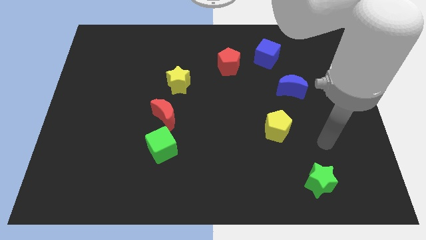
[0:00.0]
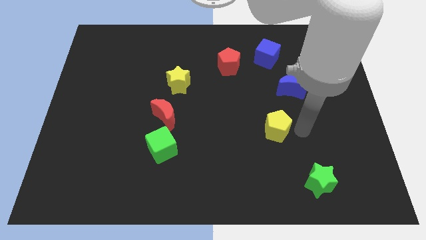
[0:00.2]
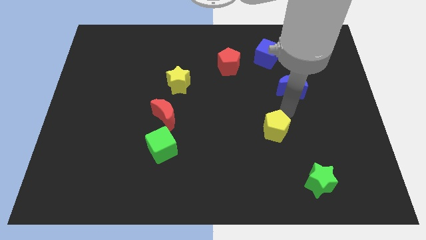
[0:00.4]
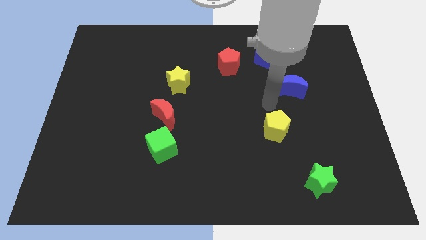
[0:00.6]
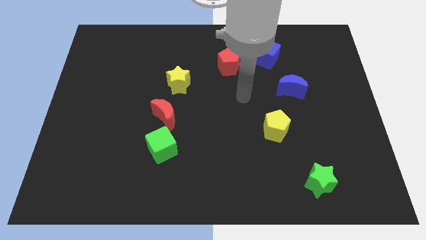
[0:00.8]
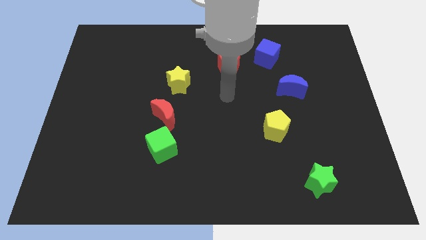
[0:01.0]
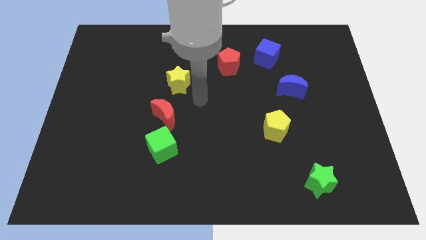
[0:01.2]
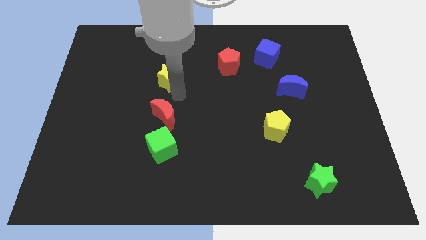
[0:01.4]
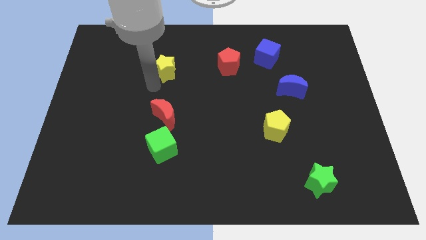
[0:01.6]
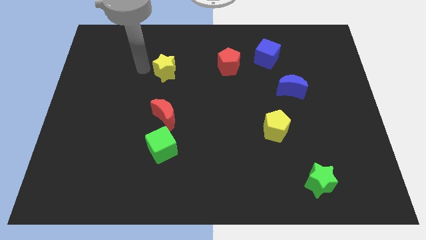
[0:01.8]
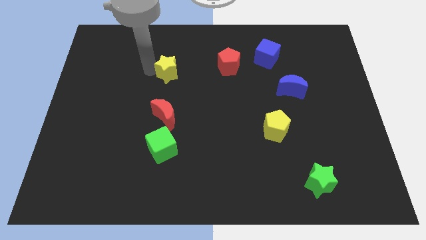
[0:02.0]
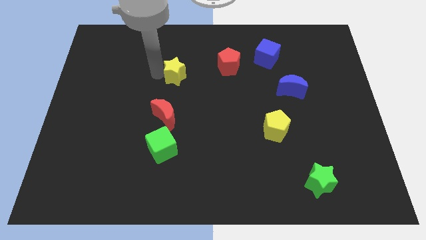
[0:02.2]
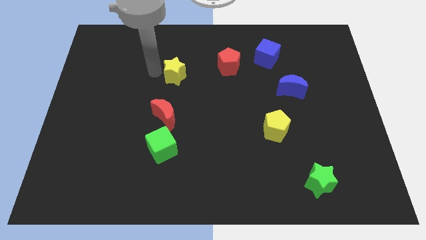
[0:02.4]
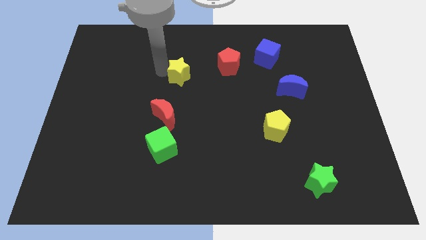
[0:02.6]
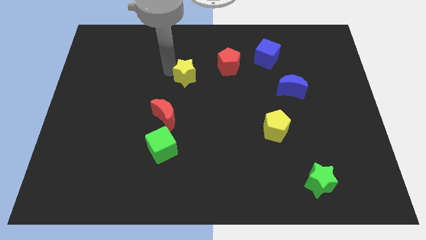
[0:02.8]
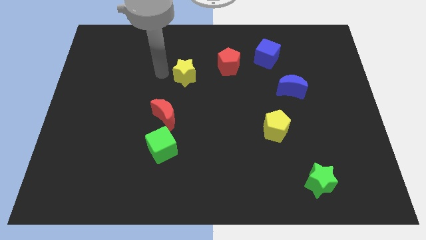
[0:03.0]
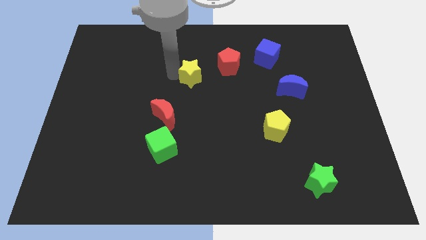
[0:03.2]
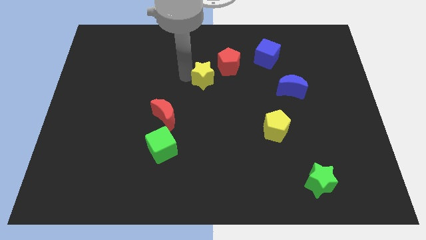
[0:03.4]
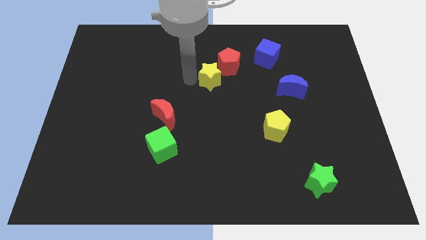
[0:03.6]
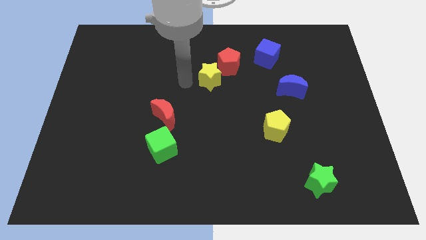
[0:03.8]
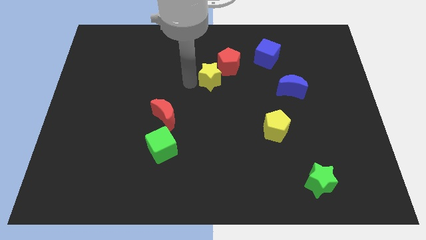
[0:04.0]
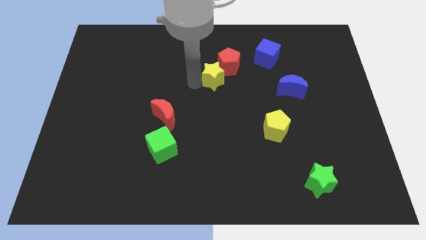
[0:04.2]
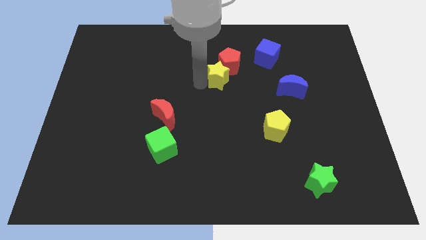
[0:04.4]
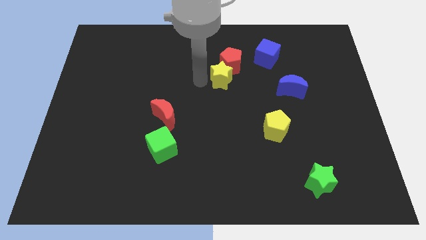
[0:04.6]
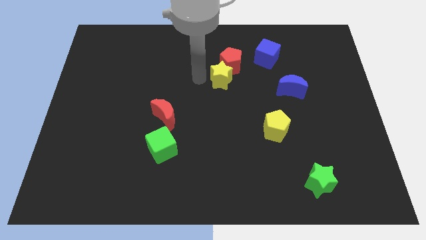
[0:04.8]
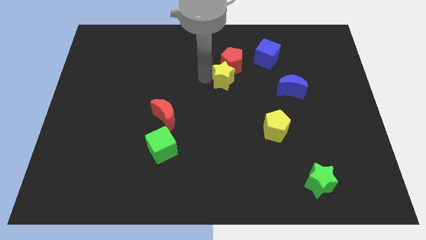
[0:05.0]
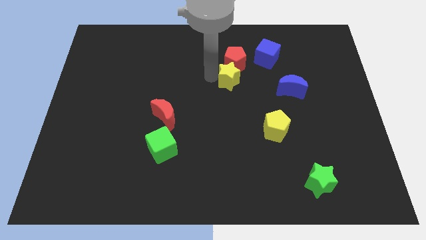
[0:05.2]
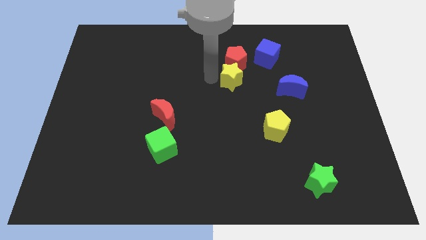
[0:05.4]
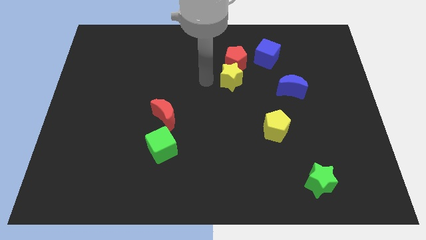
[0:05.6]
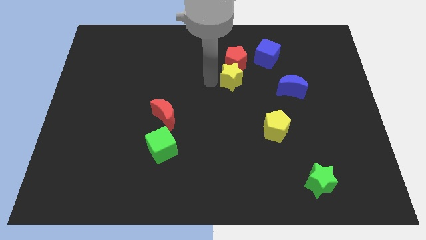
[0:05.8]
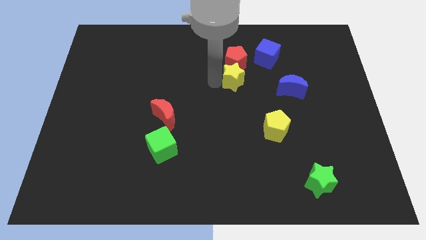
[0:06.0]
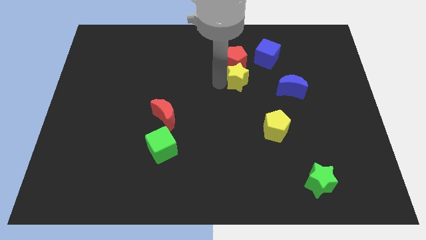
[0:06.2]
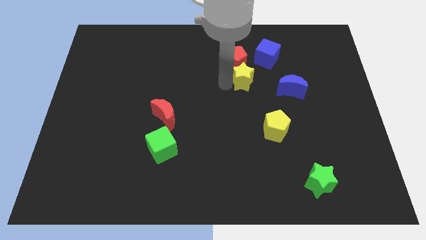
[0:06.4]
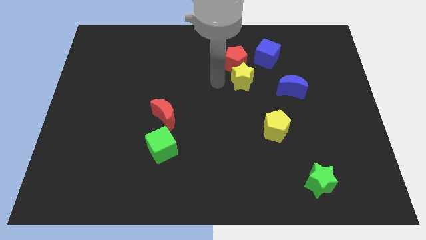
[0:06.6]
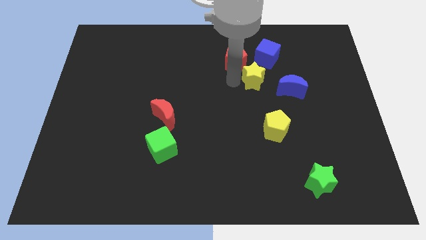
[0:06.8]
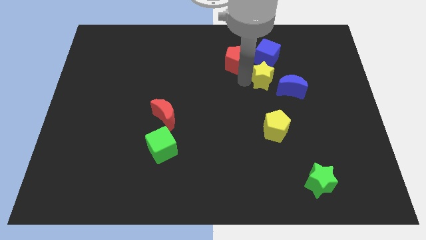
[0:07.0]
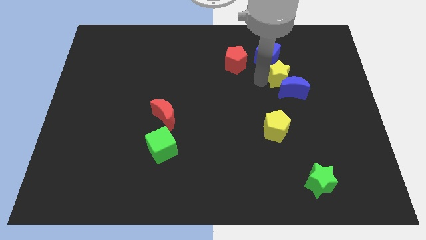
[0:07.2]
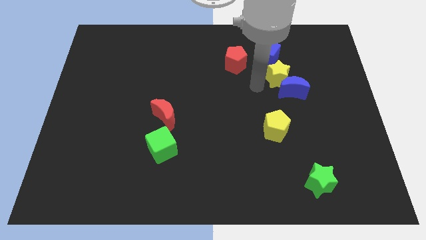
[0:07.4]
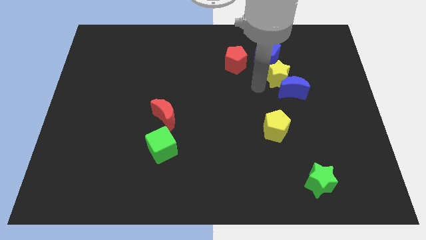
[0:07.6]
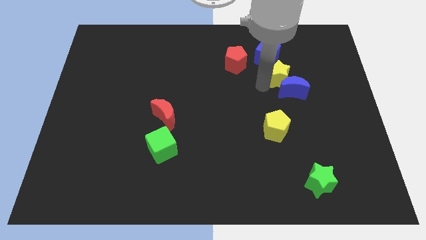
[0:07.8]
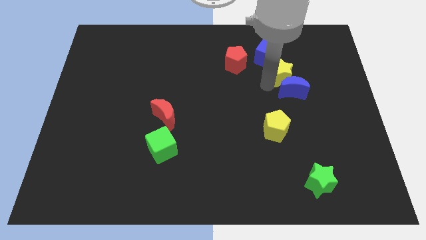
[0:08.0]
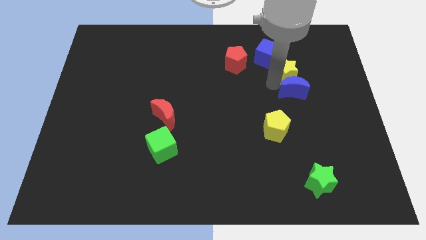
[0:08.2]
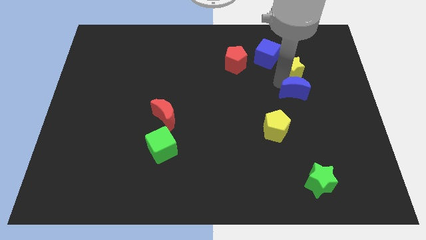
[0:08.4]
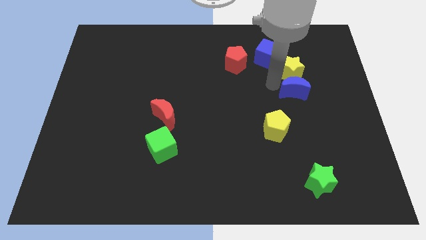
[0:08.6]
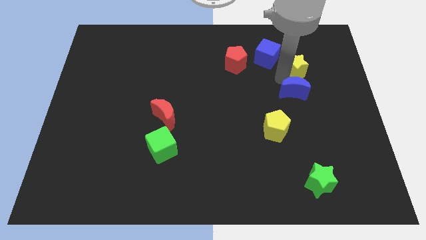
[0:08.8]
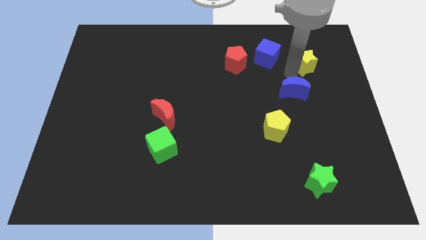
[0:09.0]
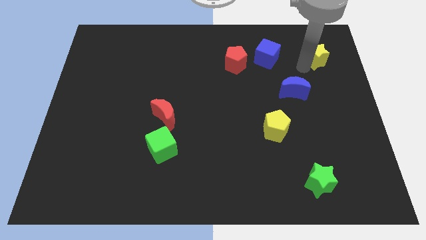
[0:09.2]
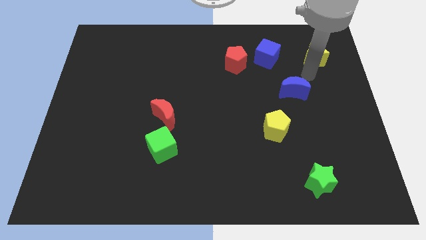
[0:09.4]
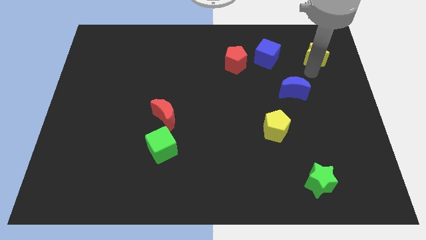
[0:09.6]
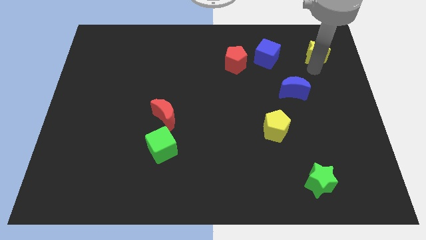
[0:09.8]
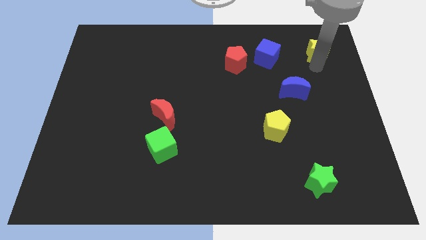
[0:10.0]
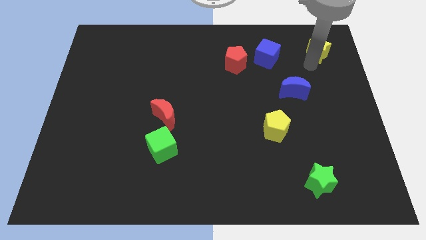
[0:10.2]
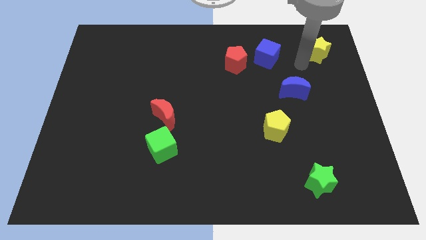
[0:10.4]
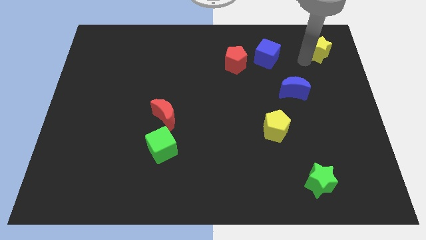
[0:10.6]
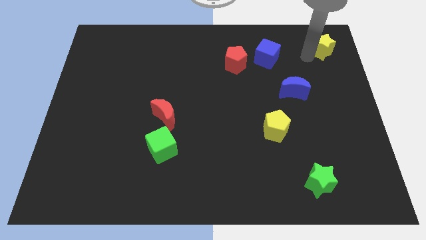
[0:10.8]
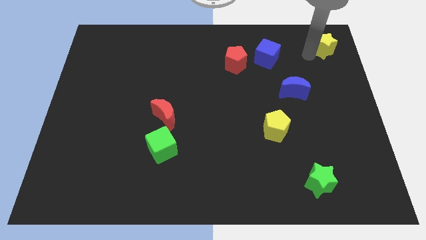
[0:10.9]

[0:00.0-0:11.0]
put the yellow star to the top right corner
